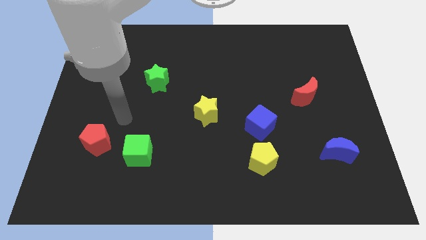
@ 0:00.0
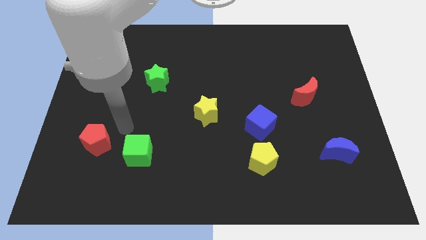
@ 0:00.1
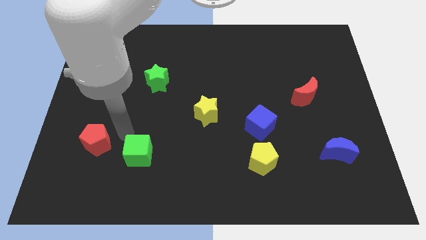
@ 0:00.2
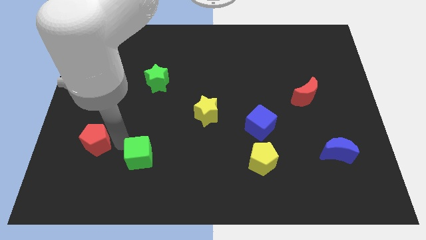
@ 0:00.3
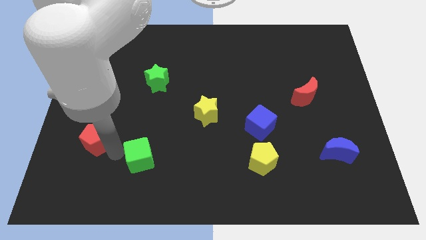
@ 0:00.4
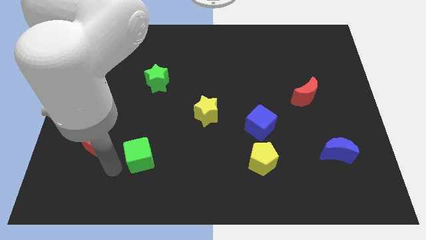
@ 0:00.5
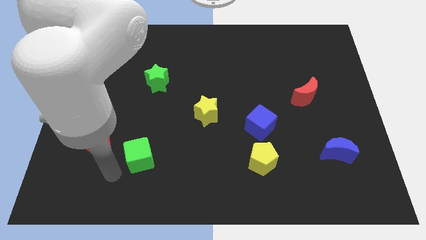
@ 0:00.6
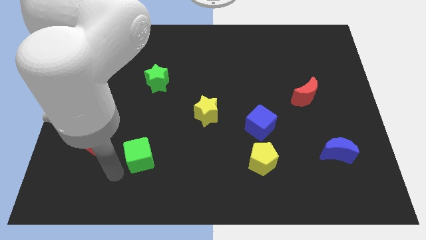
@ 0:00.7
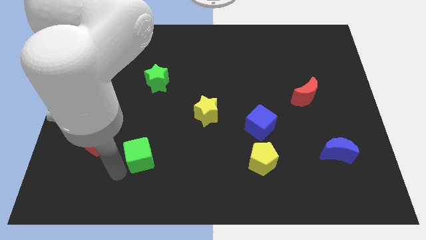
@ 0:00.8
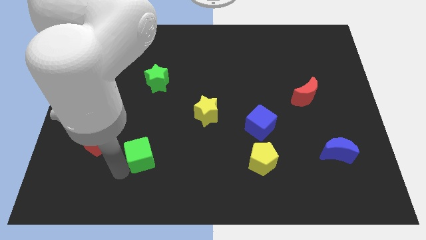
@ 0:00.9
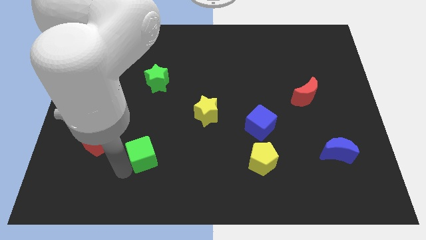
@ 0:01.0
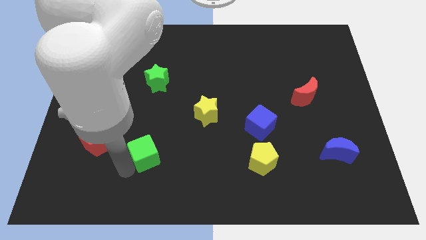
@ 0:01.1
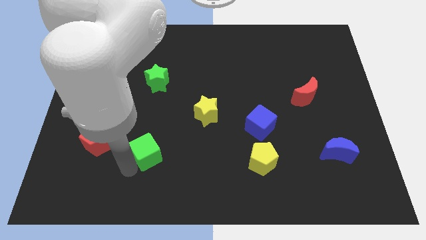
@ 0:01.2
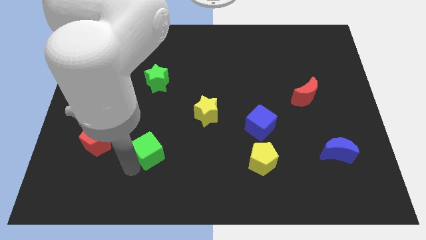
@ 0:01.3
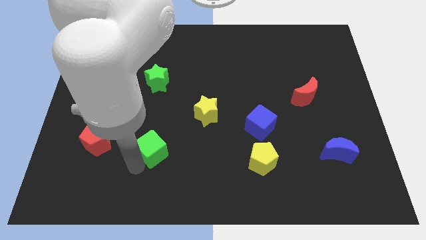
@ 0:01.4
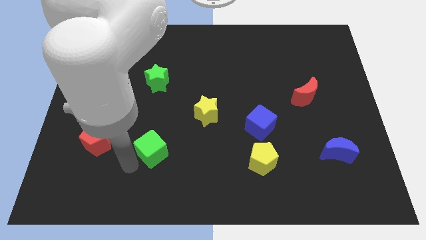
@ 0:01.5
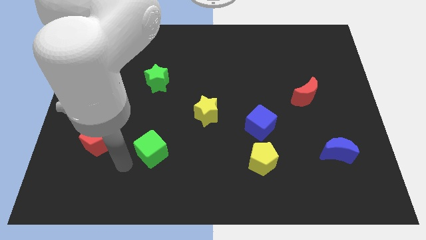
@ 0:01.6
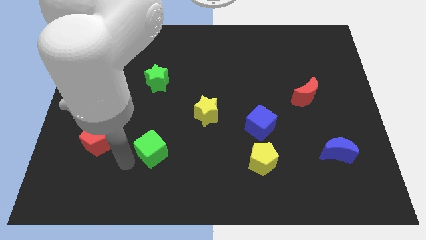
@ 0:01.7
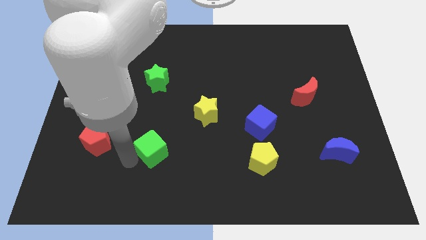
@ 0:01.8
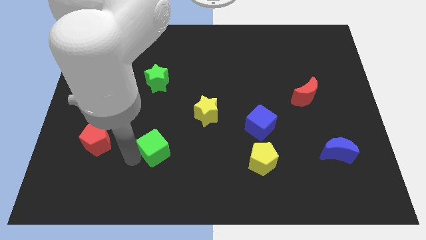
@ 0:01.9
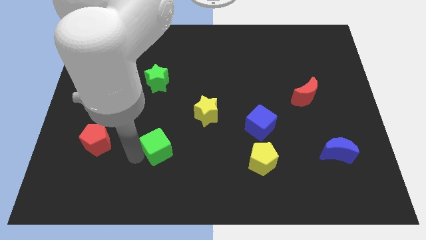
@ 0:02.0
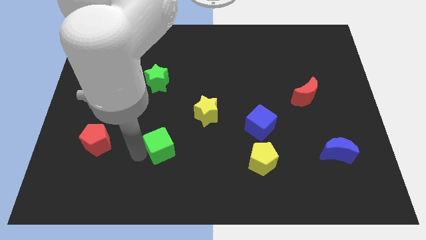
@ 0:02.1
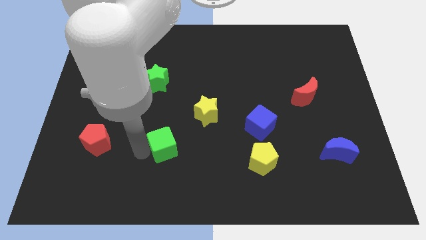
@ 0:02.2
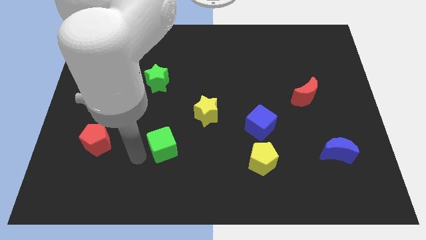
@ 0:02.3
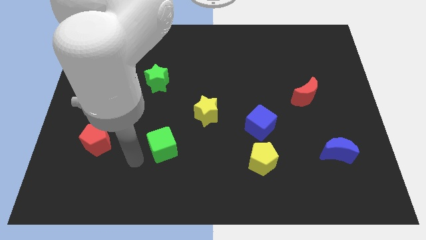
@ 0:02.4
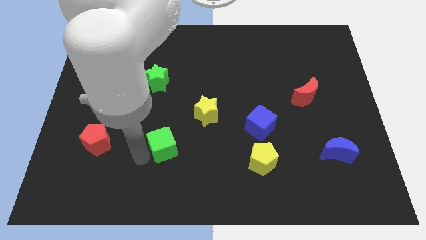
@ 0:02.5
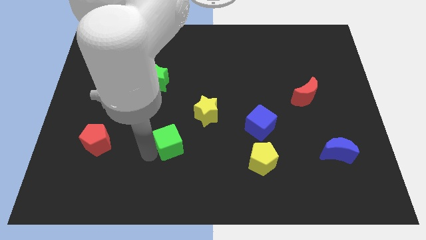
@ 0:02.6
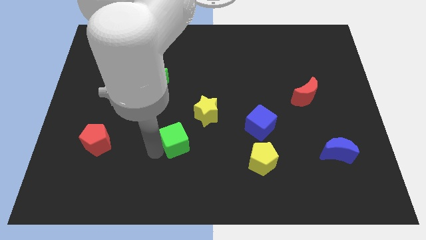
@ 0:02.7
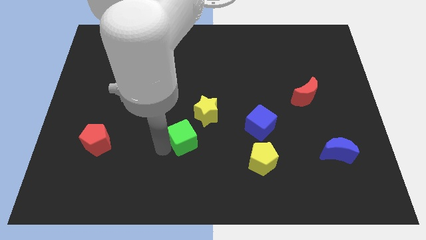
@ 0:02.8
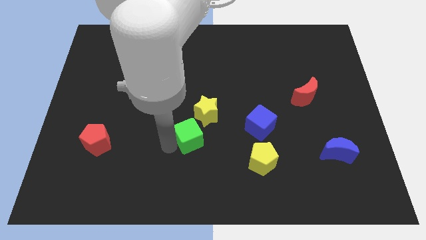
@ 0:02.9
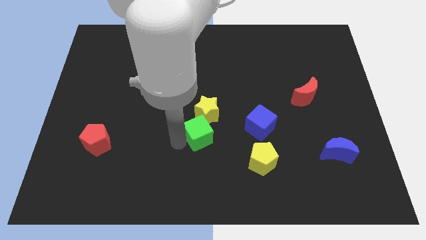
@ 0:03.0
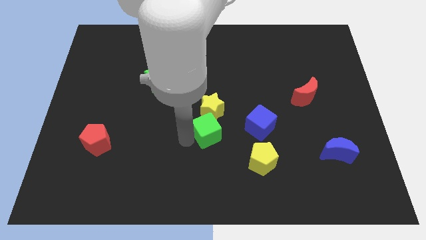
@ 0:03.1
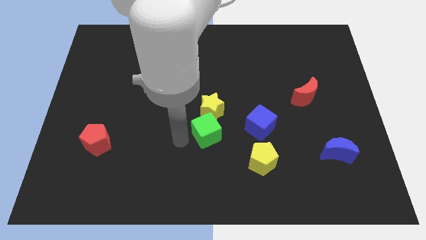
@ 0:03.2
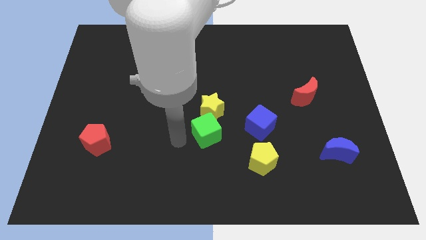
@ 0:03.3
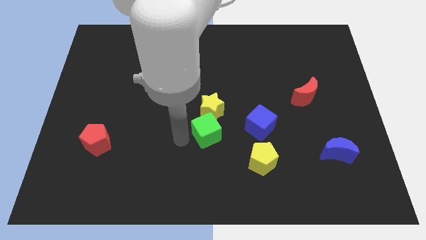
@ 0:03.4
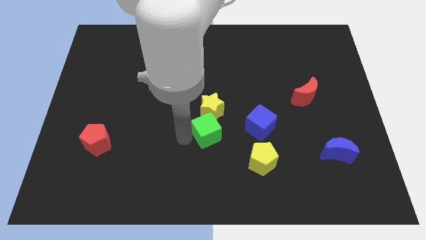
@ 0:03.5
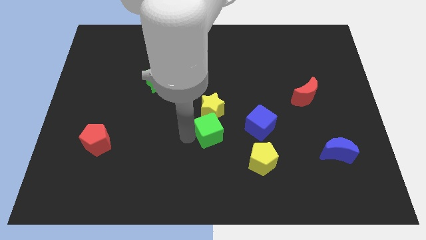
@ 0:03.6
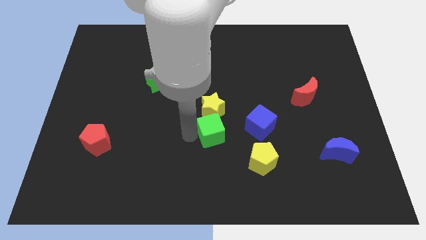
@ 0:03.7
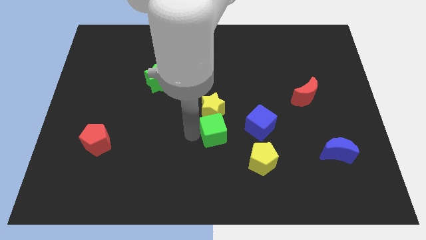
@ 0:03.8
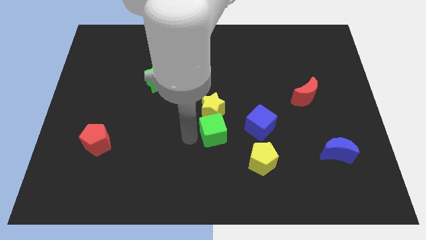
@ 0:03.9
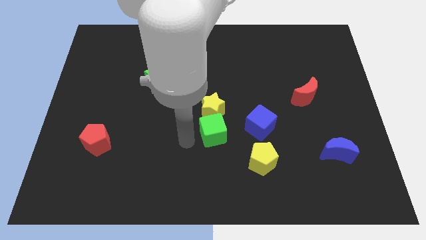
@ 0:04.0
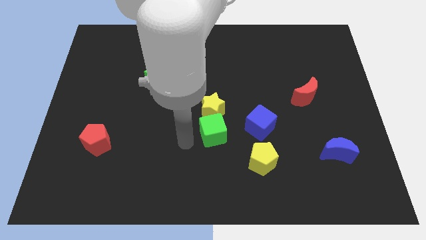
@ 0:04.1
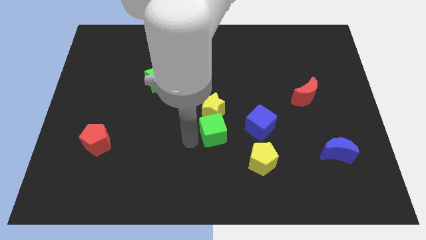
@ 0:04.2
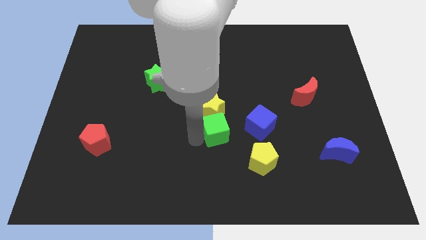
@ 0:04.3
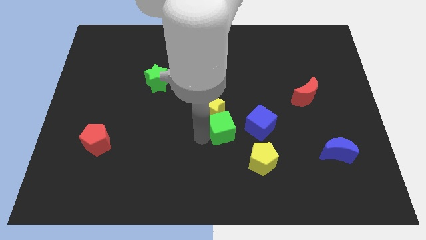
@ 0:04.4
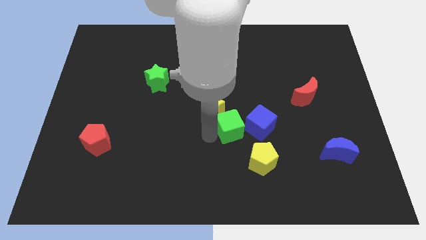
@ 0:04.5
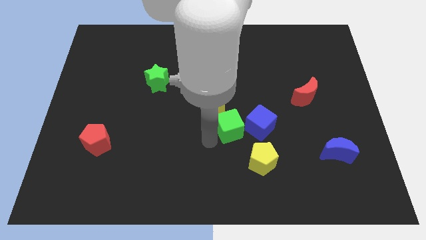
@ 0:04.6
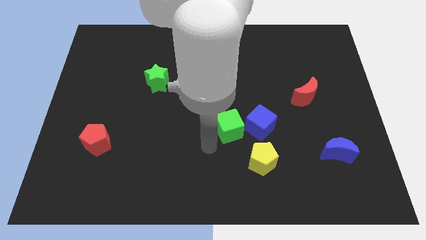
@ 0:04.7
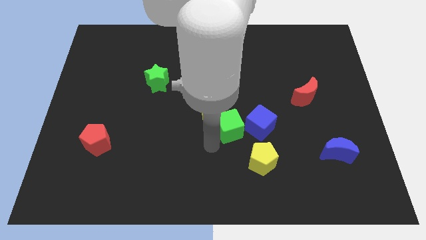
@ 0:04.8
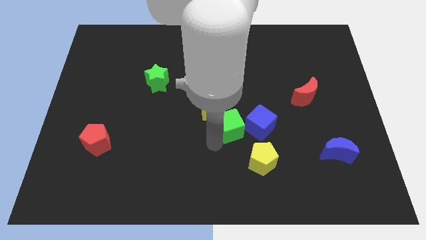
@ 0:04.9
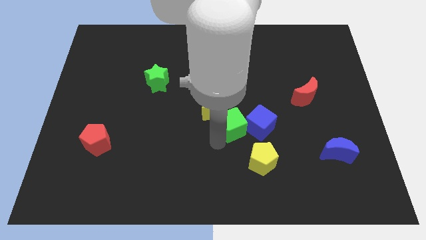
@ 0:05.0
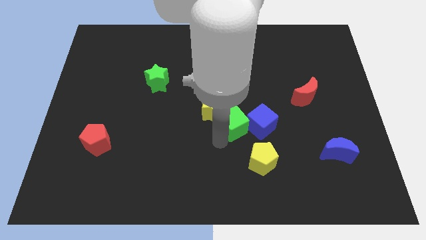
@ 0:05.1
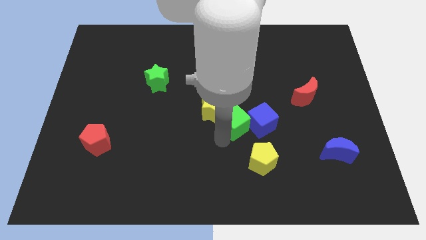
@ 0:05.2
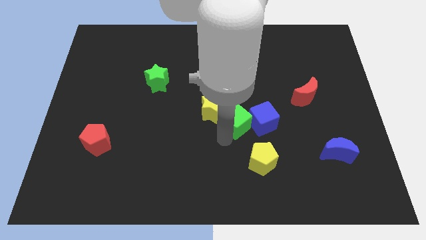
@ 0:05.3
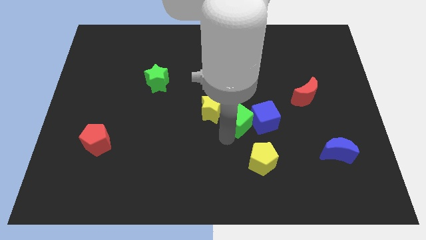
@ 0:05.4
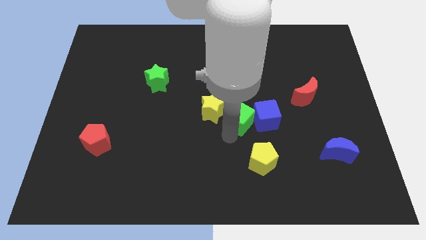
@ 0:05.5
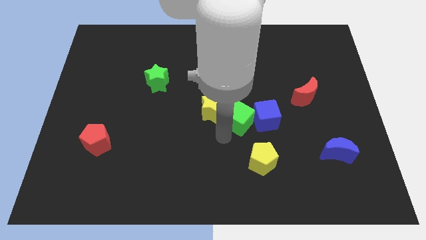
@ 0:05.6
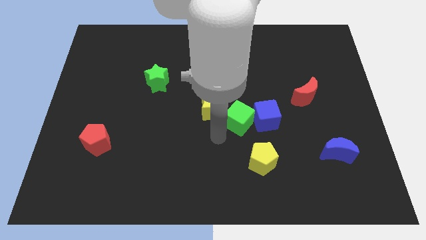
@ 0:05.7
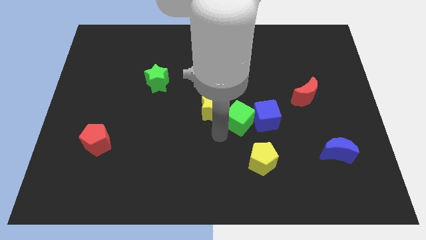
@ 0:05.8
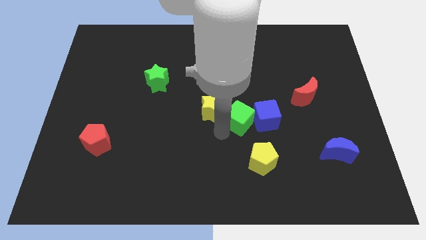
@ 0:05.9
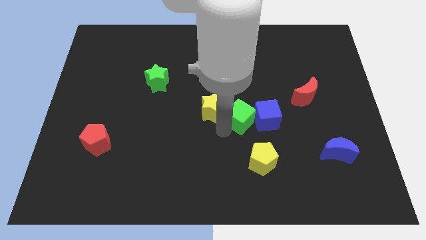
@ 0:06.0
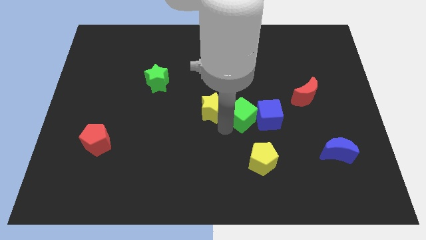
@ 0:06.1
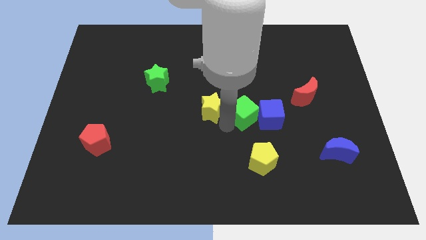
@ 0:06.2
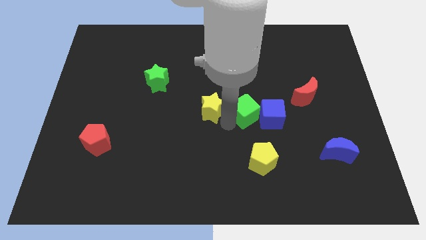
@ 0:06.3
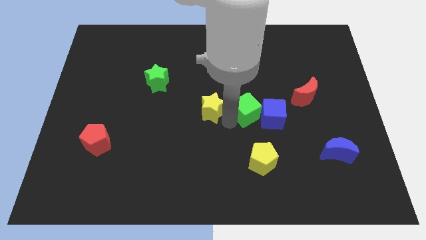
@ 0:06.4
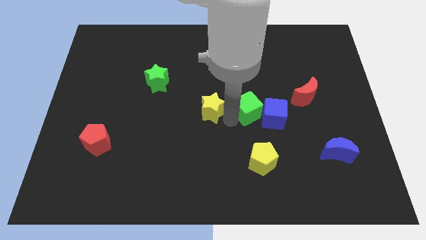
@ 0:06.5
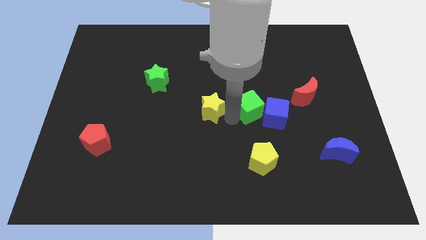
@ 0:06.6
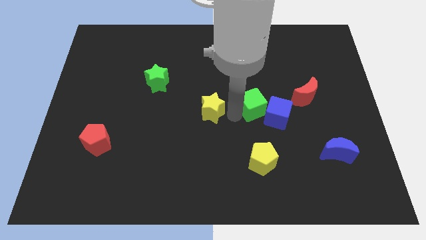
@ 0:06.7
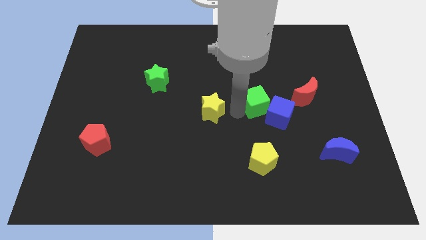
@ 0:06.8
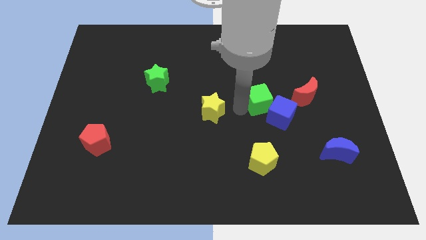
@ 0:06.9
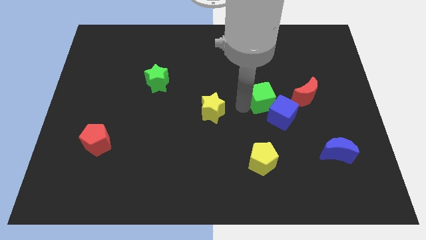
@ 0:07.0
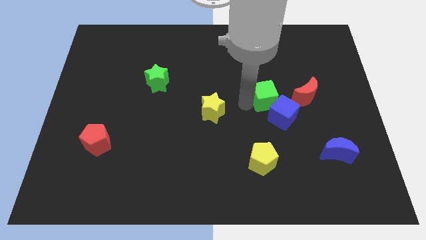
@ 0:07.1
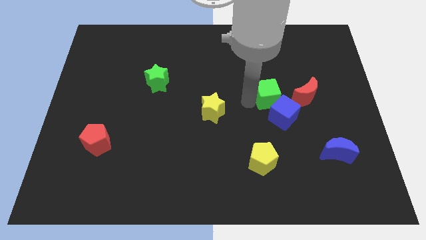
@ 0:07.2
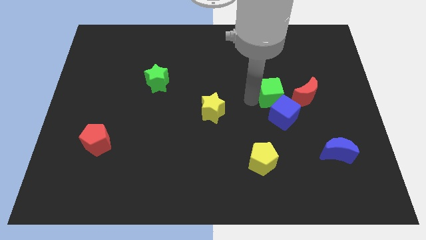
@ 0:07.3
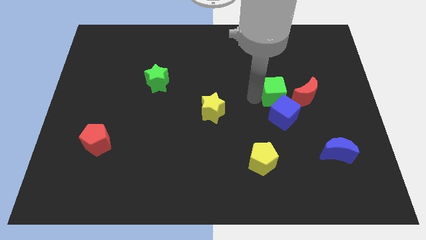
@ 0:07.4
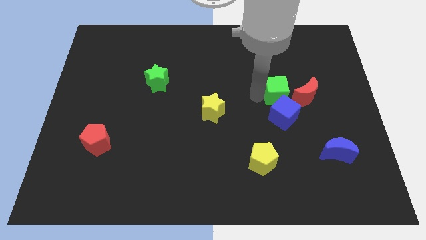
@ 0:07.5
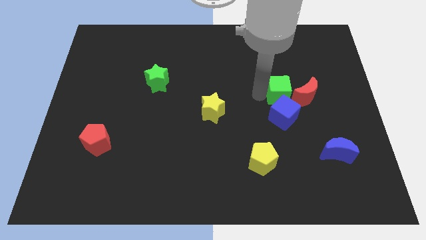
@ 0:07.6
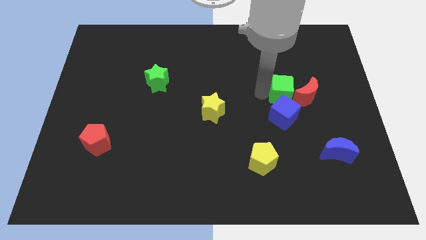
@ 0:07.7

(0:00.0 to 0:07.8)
slide the green cube to the top right of the blue cube
